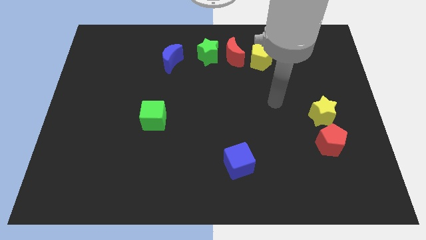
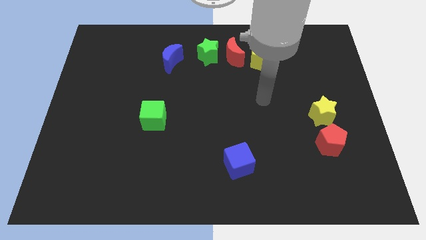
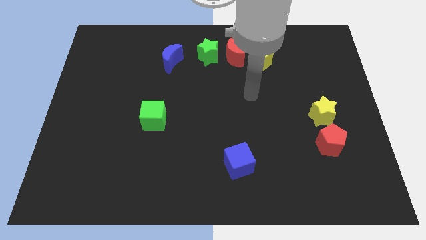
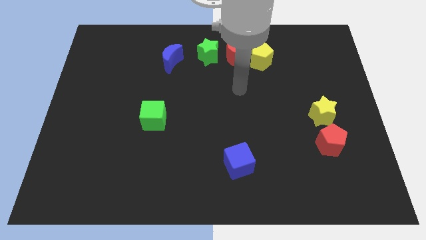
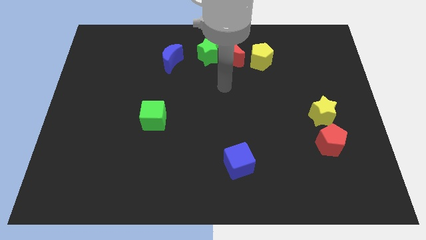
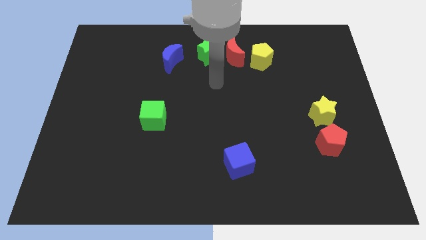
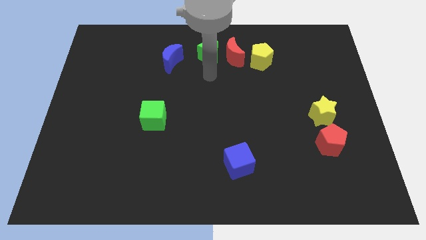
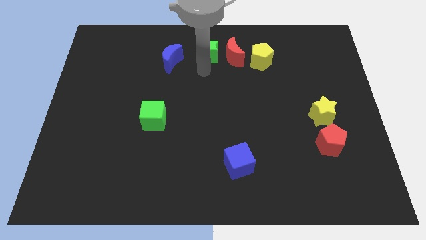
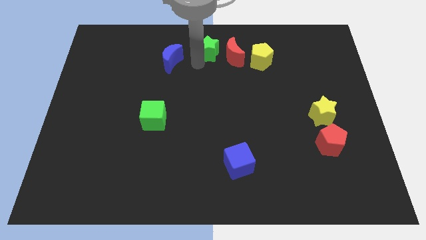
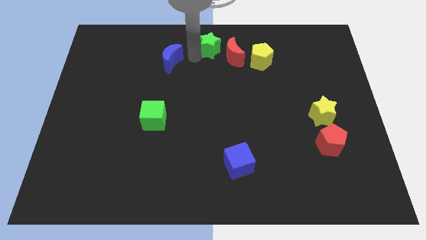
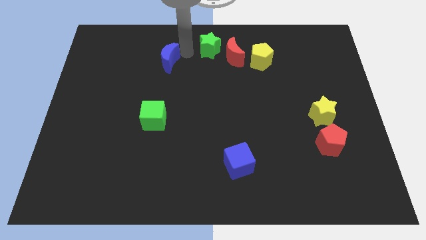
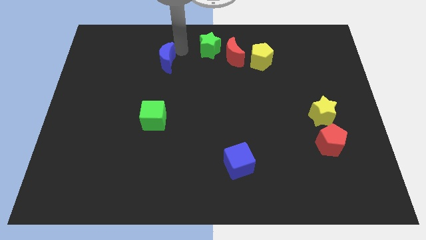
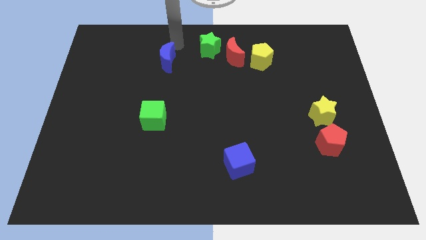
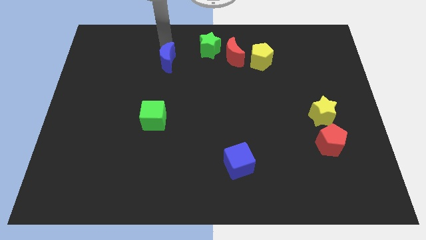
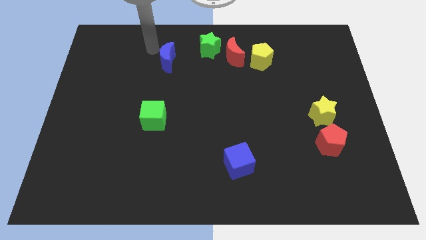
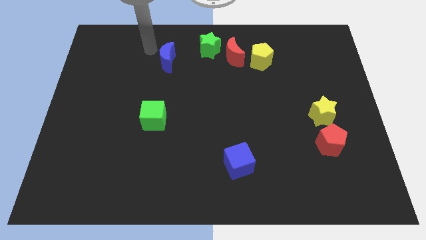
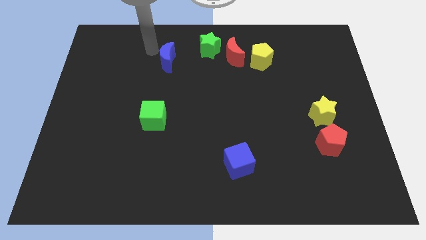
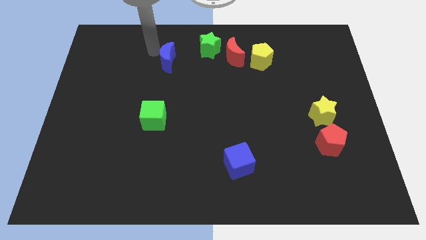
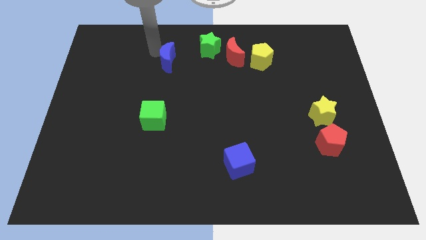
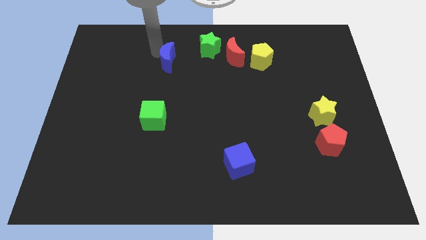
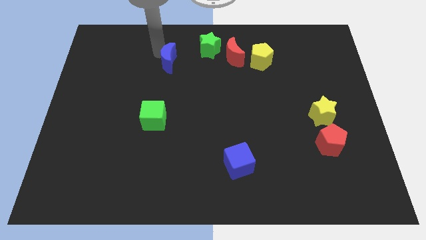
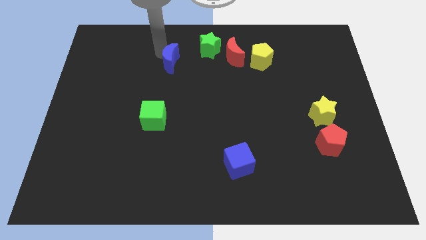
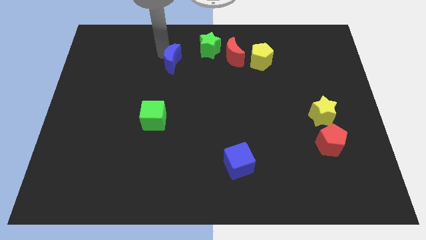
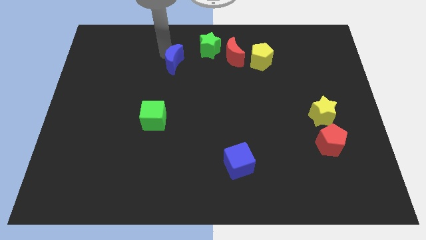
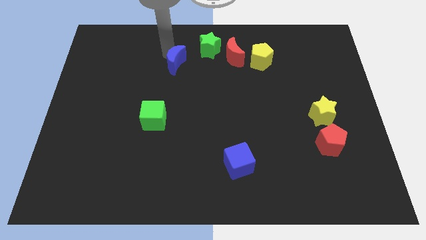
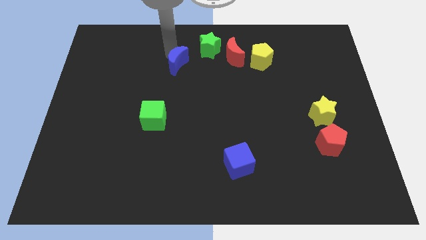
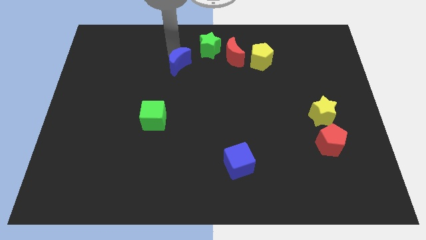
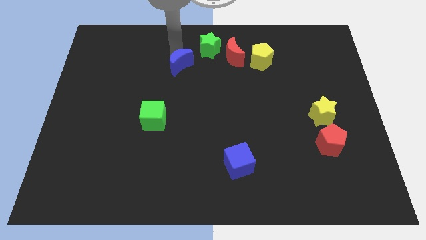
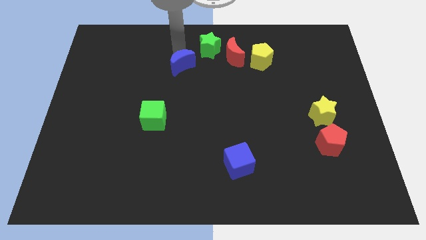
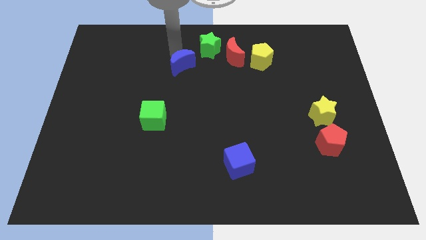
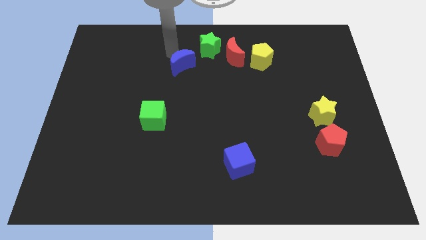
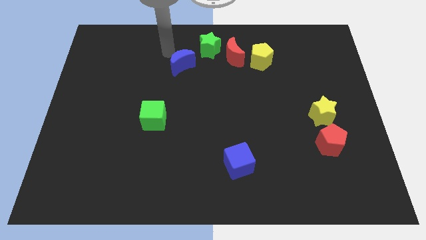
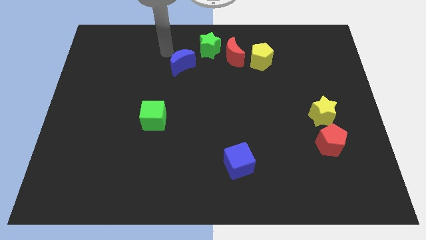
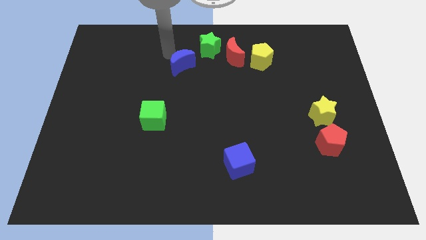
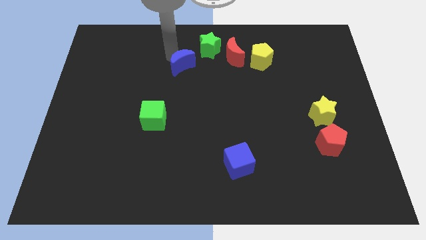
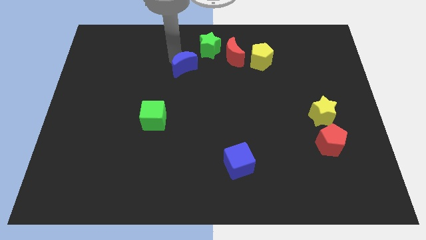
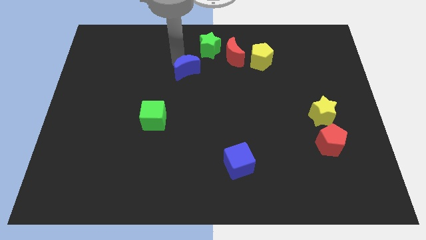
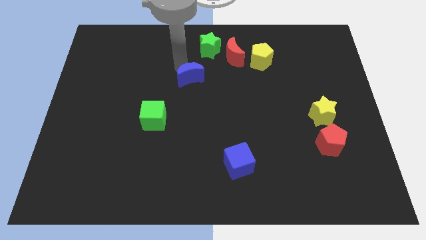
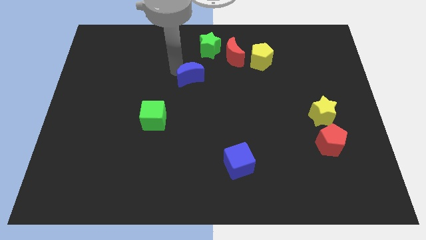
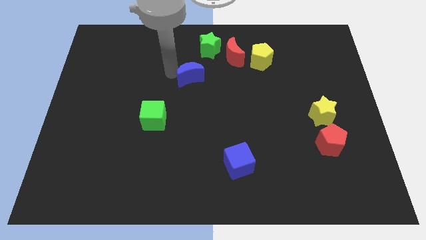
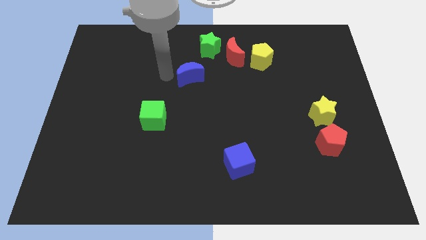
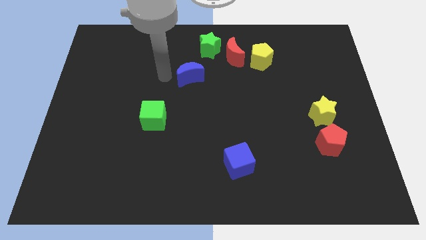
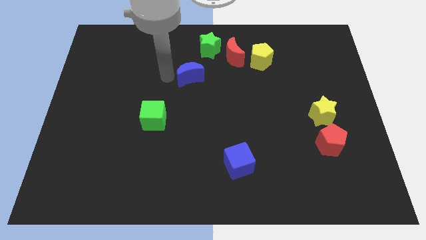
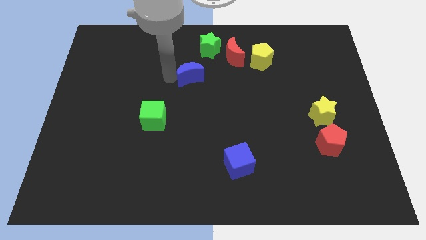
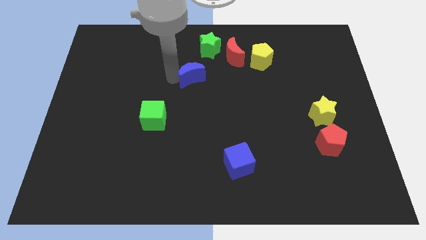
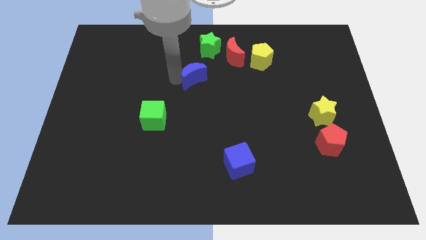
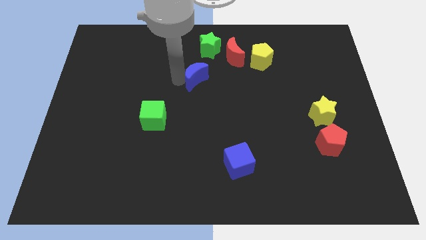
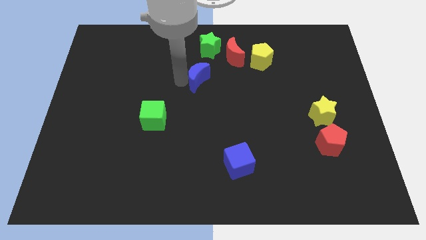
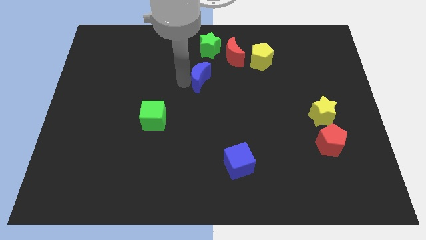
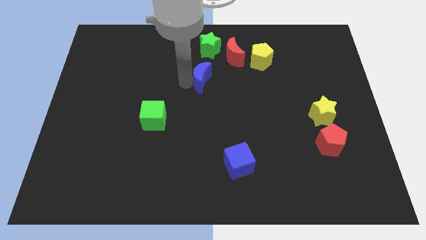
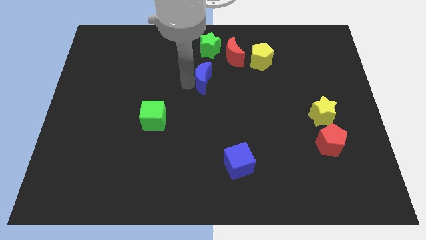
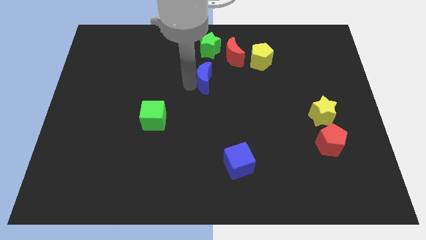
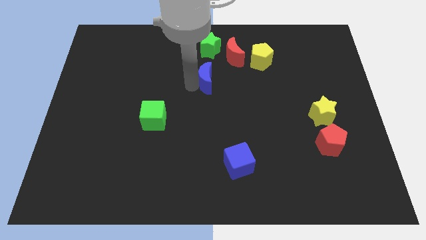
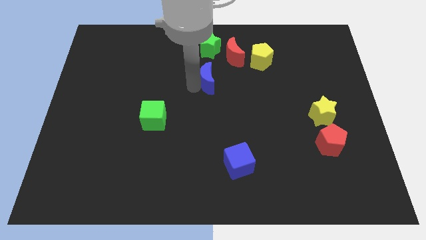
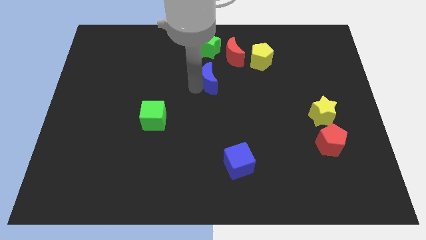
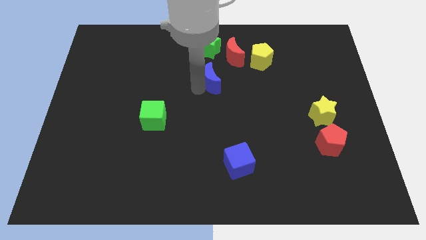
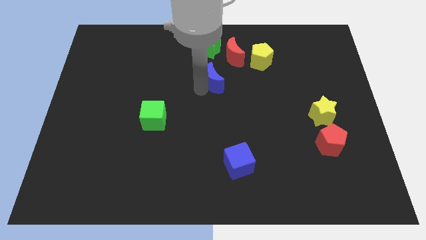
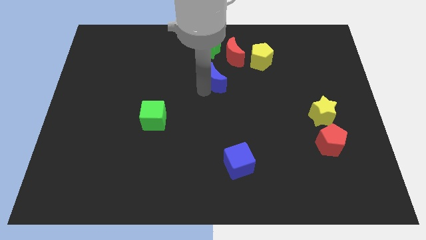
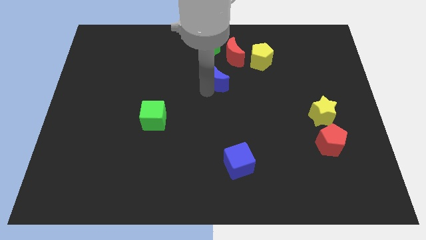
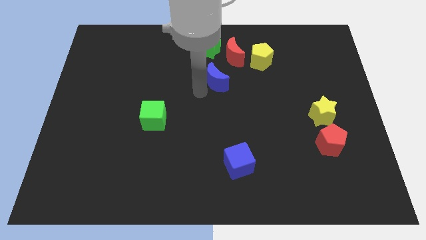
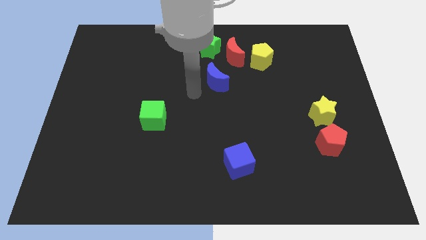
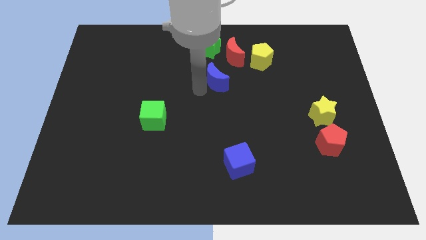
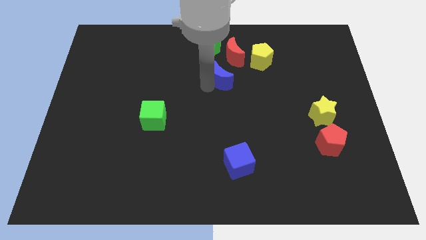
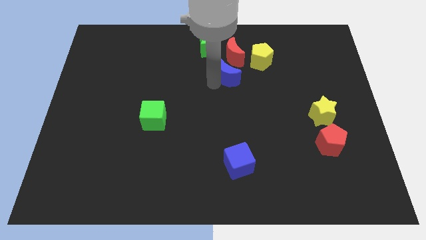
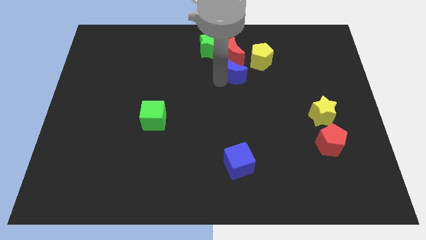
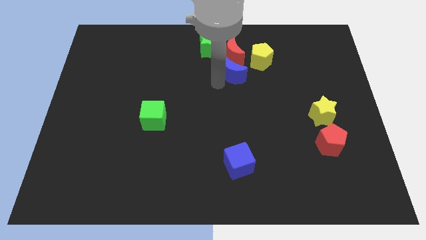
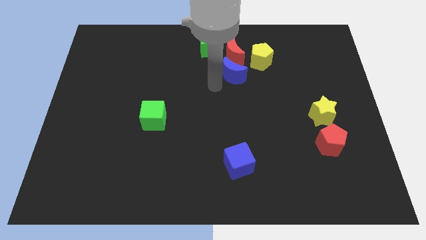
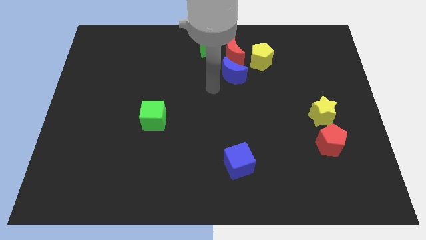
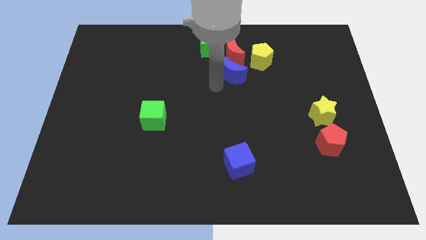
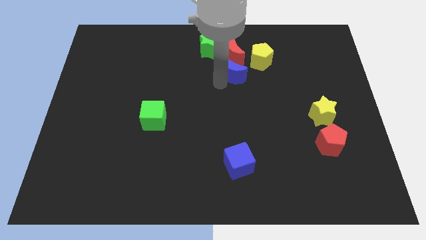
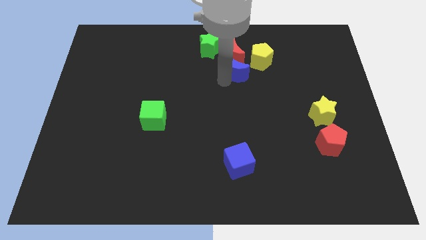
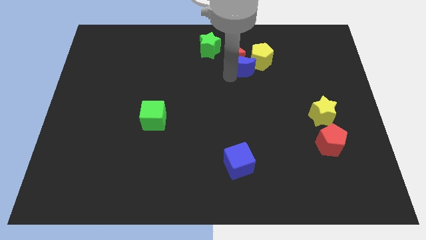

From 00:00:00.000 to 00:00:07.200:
slide the blue moon to the yellow pentagon

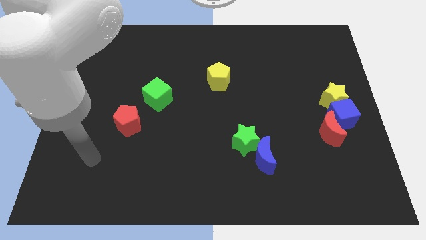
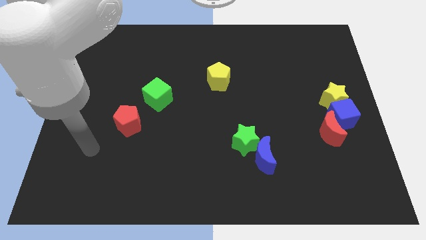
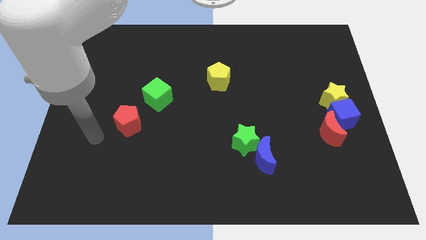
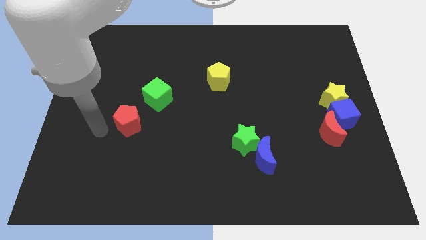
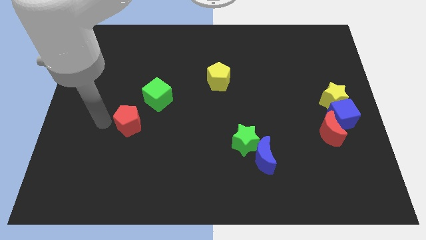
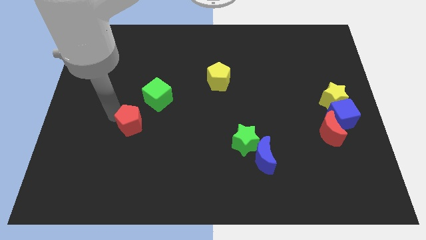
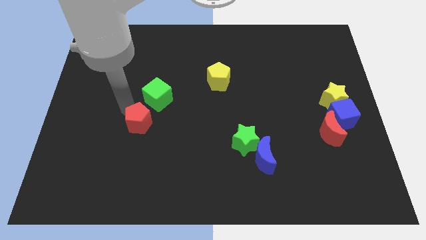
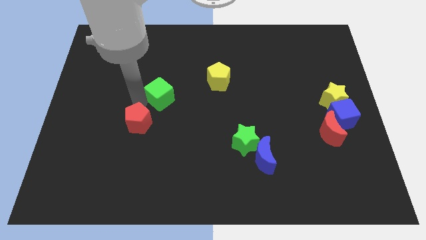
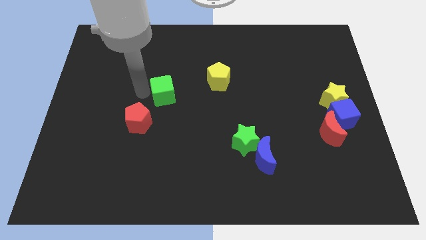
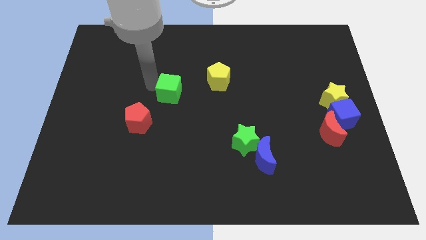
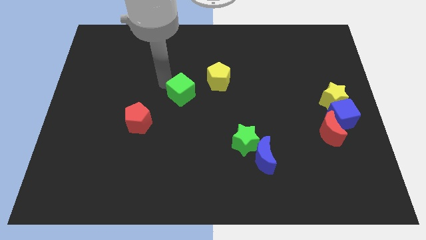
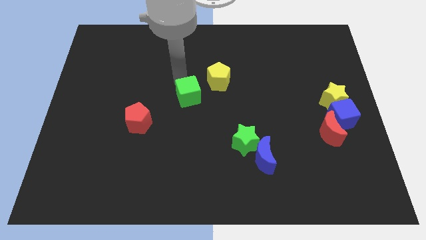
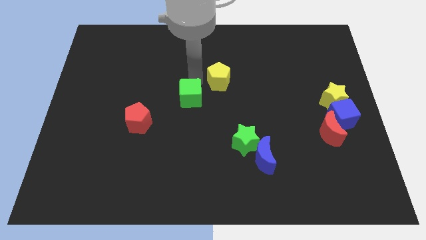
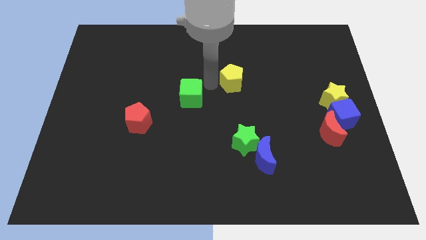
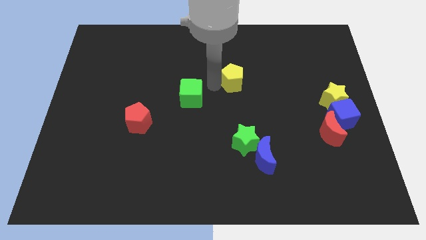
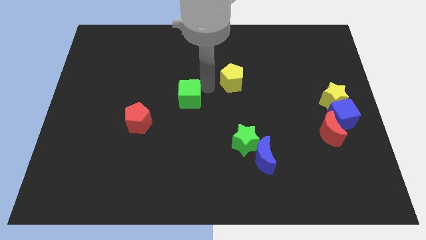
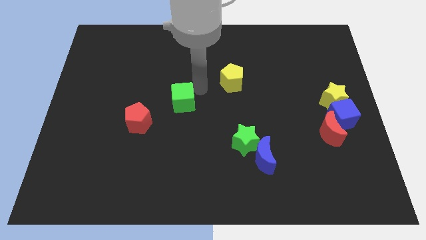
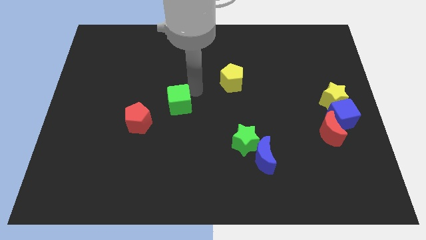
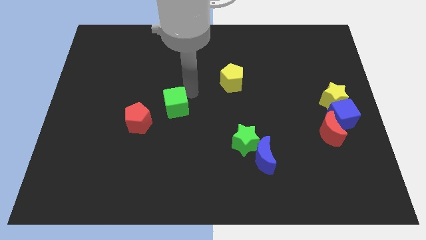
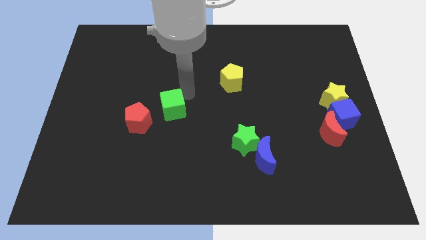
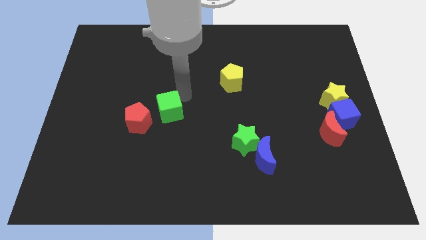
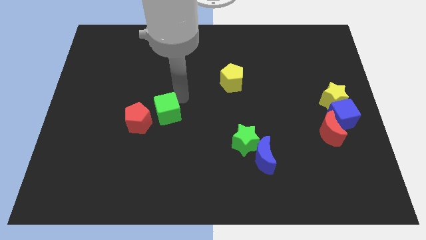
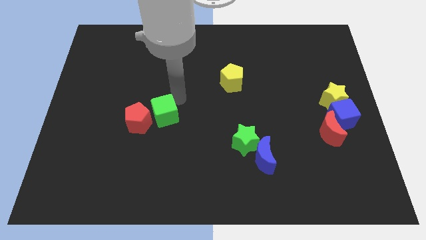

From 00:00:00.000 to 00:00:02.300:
push the green cube towards the red pentagon
